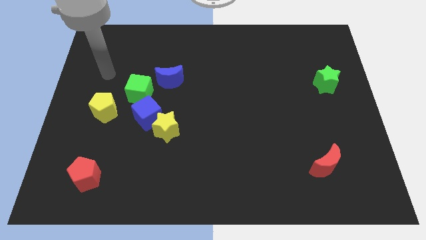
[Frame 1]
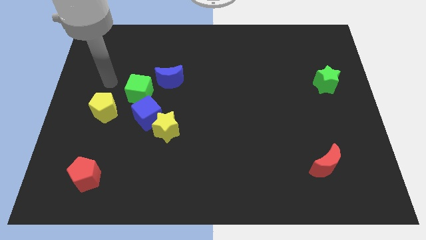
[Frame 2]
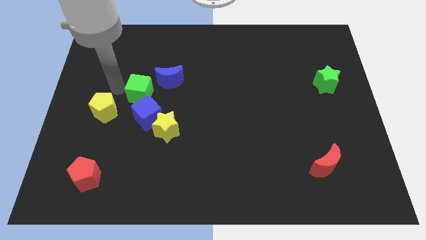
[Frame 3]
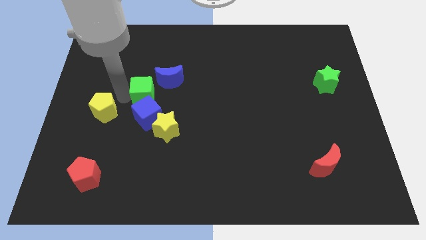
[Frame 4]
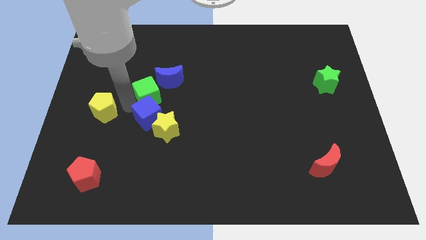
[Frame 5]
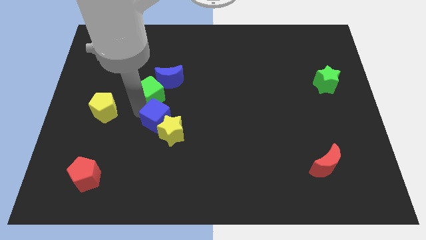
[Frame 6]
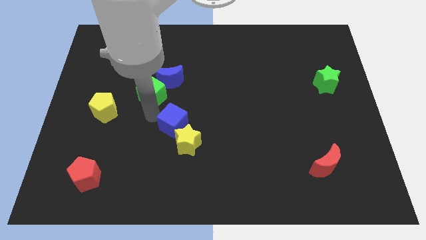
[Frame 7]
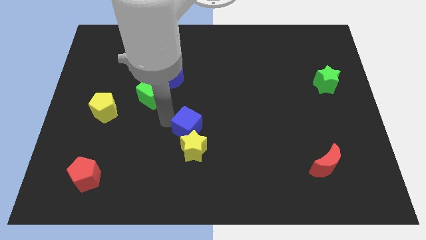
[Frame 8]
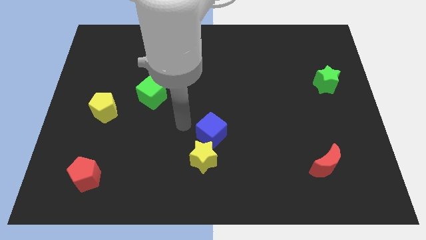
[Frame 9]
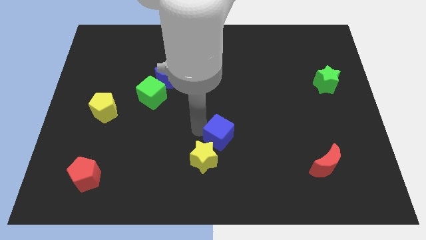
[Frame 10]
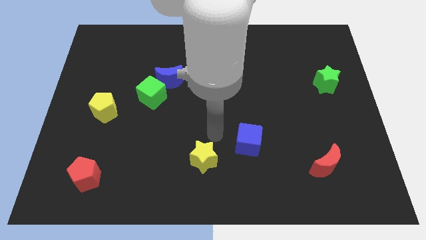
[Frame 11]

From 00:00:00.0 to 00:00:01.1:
pull the yellow star apart from the blue cube

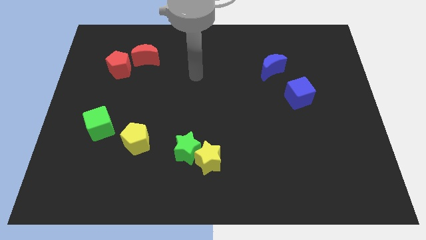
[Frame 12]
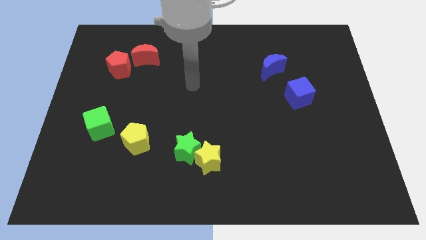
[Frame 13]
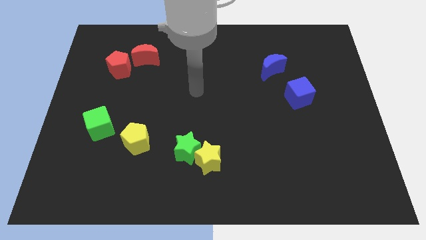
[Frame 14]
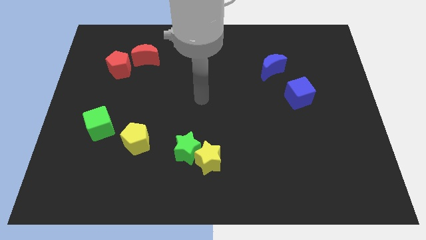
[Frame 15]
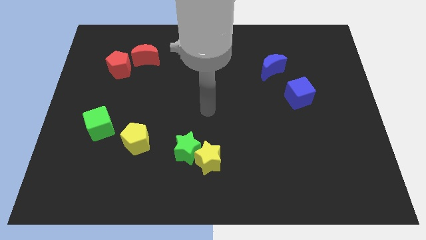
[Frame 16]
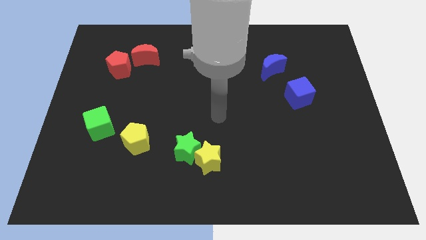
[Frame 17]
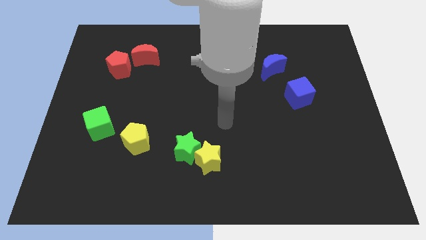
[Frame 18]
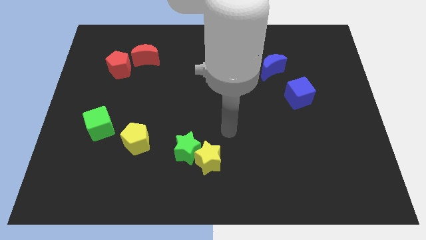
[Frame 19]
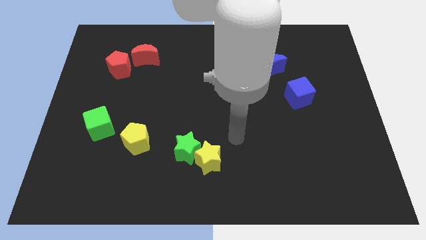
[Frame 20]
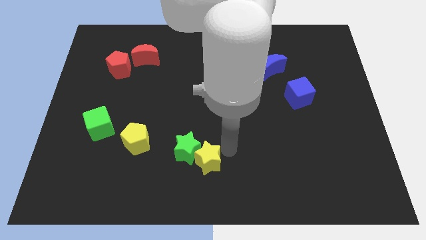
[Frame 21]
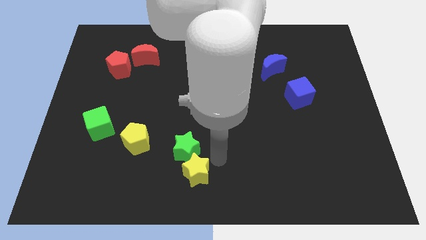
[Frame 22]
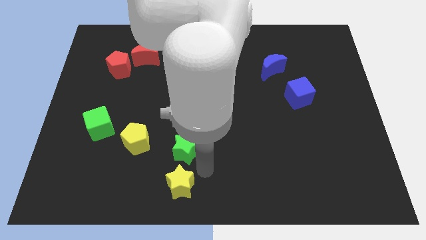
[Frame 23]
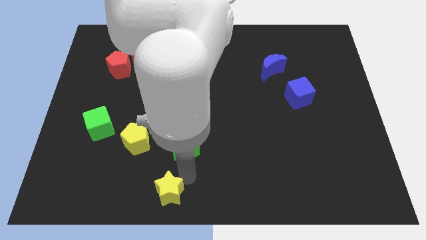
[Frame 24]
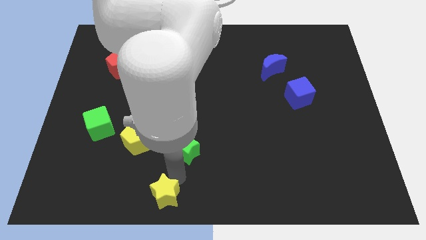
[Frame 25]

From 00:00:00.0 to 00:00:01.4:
separate the green star from the yellow star

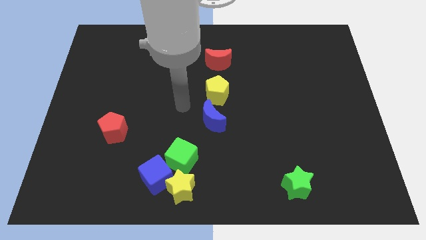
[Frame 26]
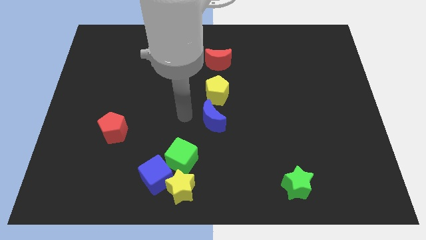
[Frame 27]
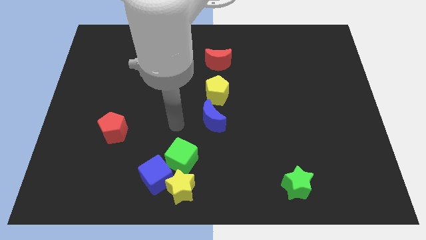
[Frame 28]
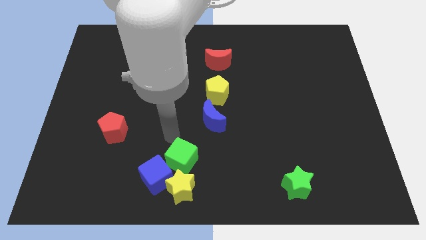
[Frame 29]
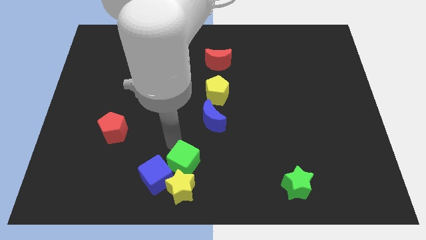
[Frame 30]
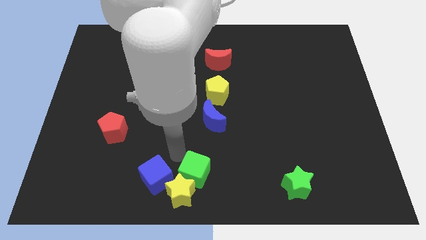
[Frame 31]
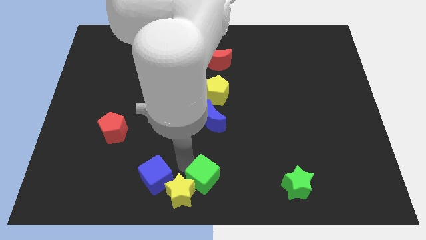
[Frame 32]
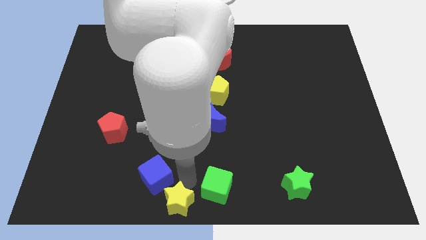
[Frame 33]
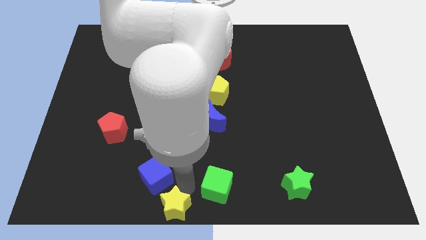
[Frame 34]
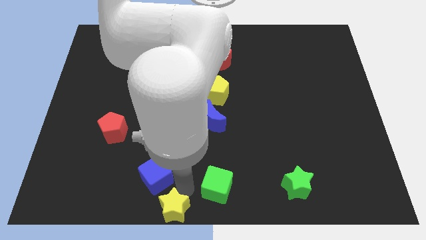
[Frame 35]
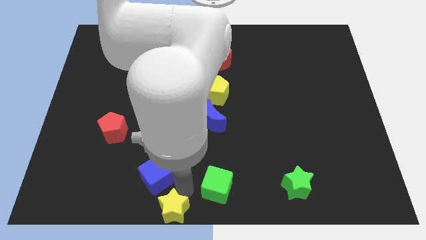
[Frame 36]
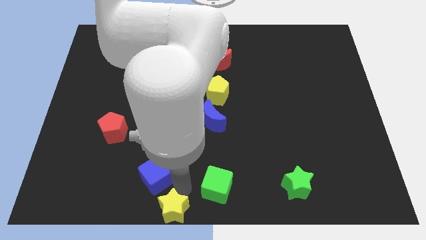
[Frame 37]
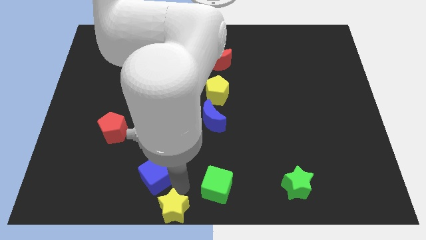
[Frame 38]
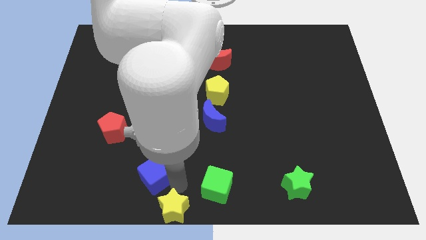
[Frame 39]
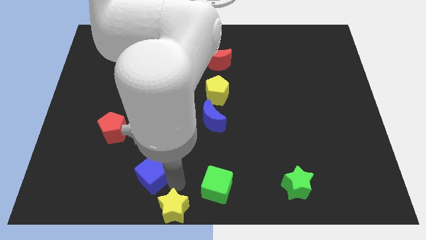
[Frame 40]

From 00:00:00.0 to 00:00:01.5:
move the blue cube away from the yellow star and green cube

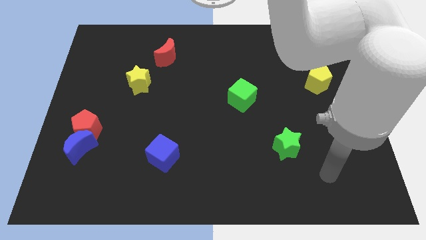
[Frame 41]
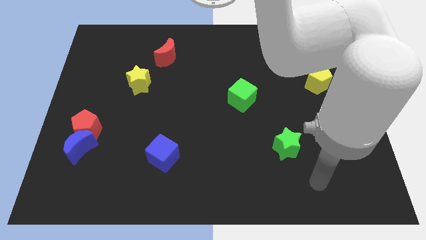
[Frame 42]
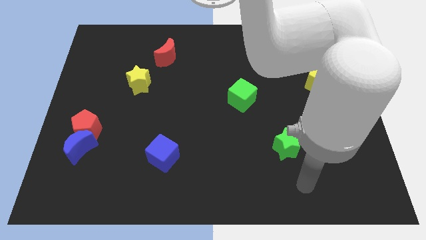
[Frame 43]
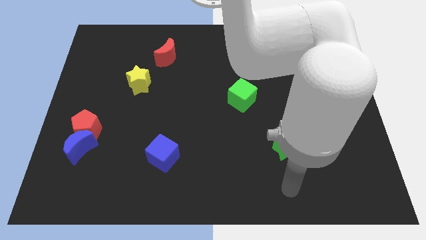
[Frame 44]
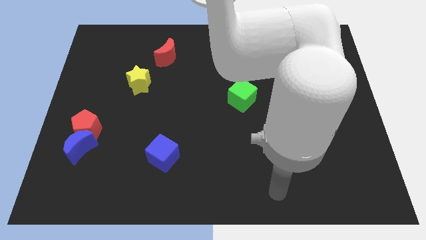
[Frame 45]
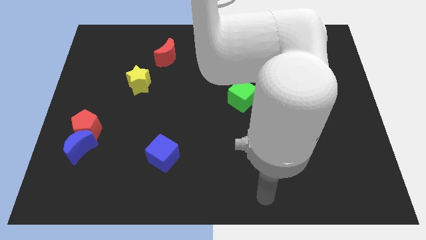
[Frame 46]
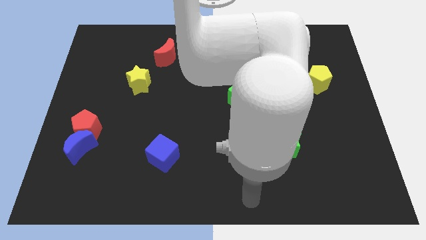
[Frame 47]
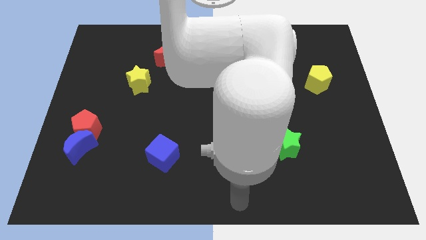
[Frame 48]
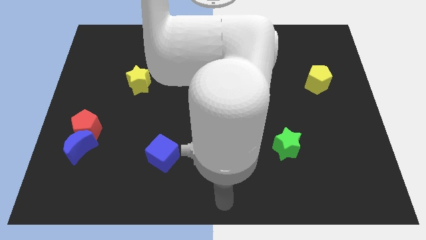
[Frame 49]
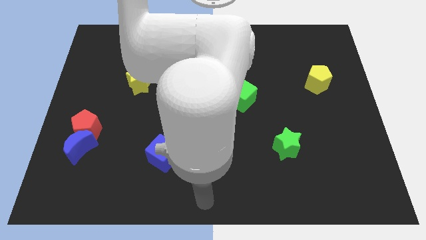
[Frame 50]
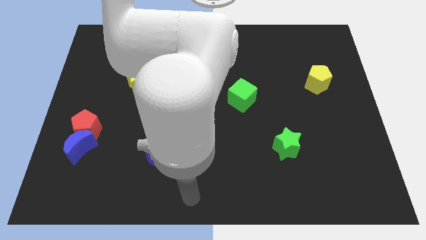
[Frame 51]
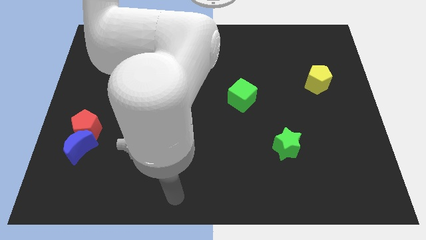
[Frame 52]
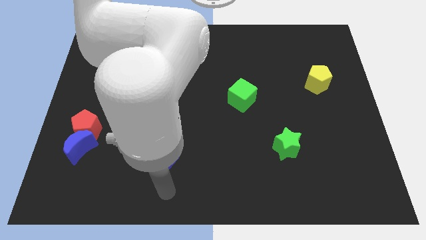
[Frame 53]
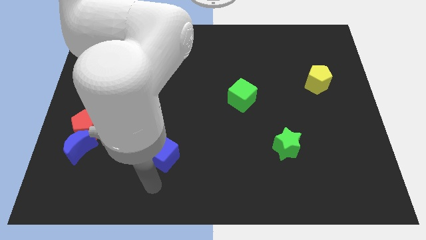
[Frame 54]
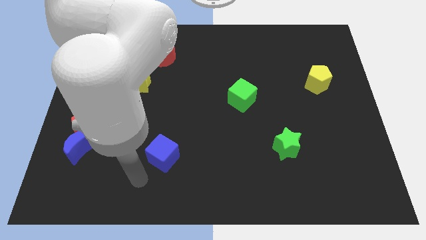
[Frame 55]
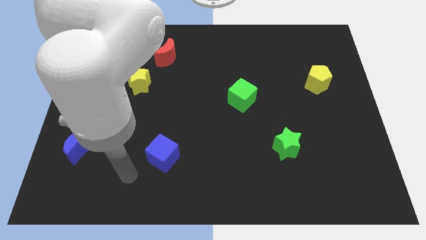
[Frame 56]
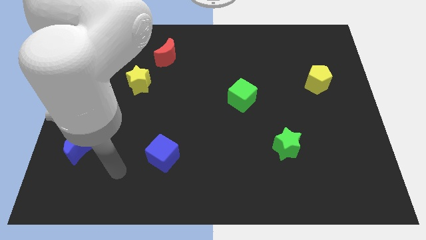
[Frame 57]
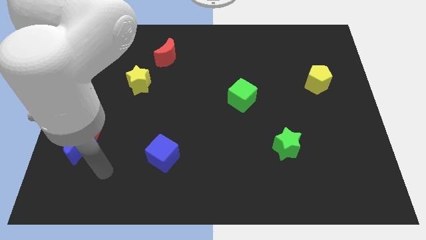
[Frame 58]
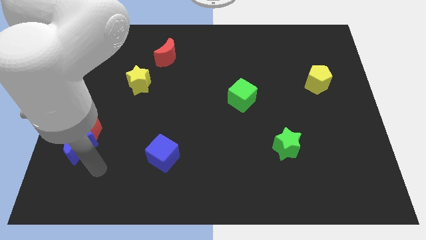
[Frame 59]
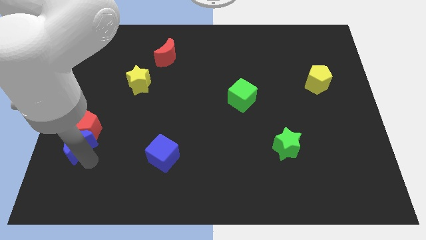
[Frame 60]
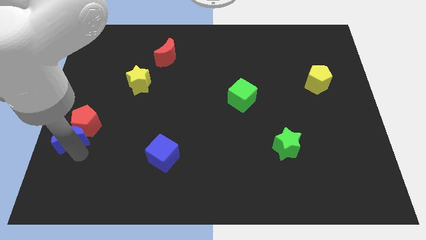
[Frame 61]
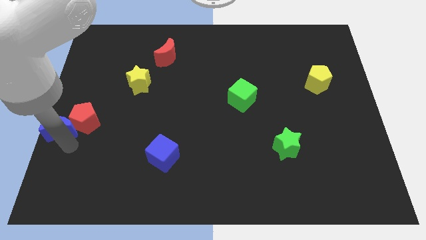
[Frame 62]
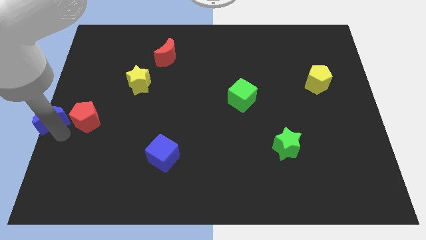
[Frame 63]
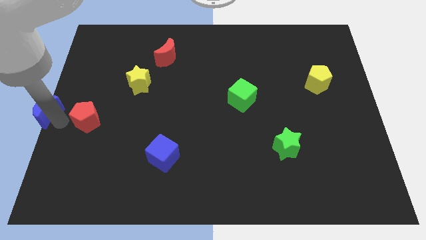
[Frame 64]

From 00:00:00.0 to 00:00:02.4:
move the red pentagon away from the blue moon

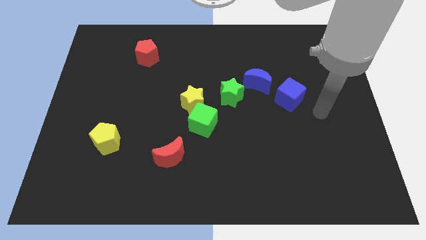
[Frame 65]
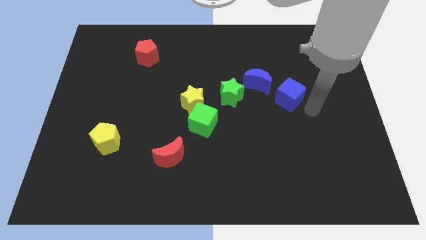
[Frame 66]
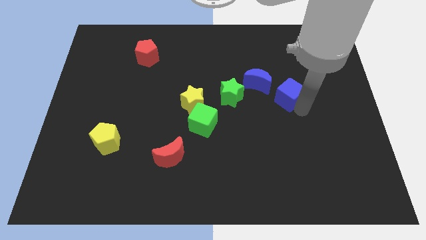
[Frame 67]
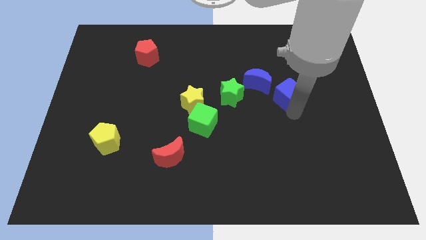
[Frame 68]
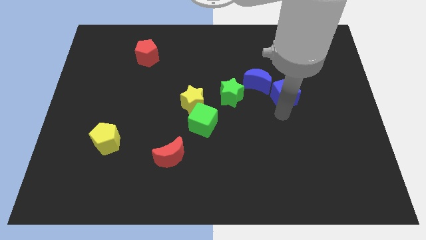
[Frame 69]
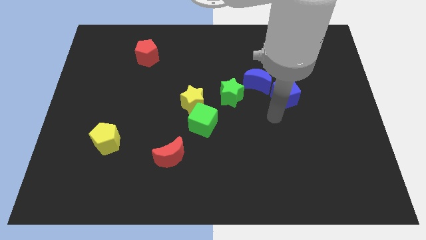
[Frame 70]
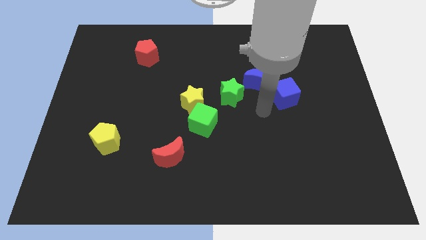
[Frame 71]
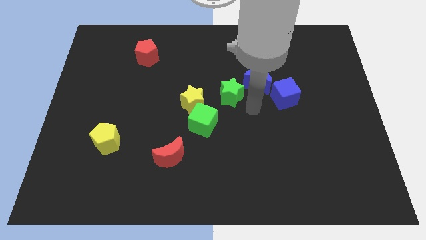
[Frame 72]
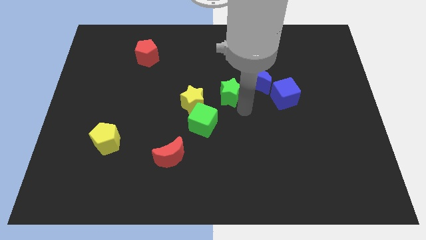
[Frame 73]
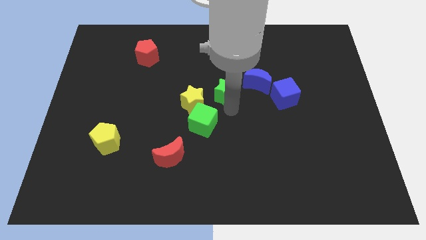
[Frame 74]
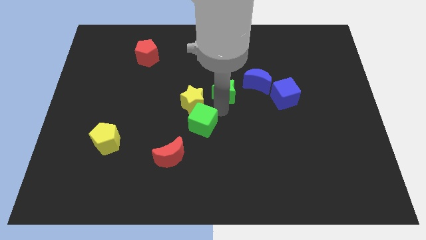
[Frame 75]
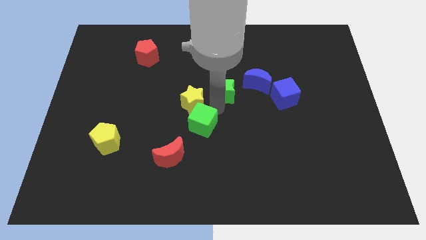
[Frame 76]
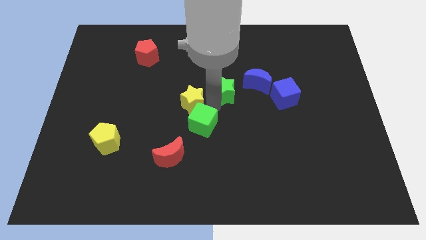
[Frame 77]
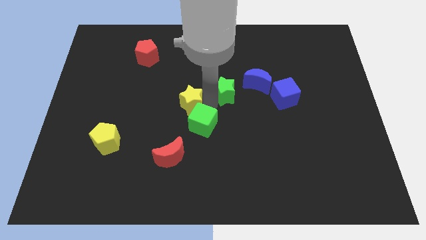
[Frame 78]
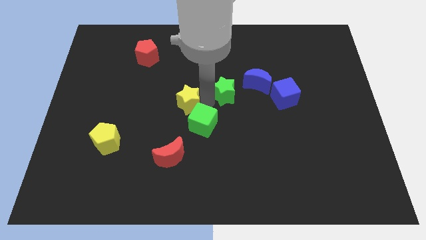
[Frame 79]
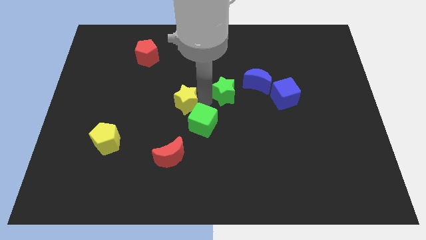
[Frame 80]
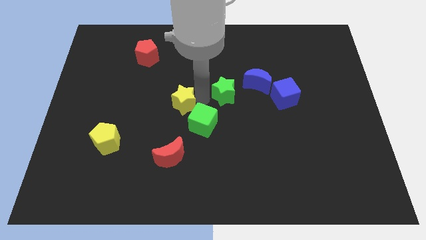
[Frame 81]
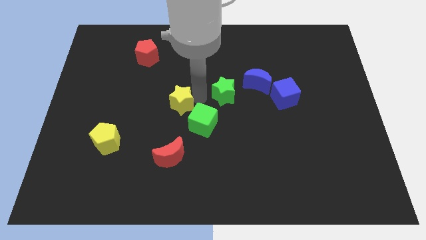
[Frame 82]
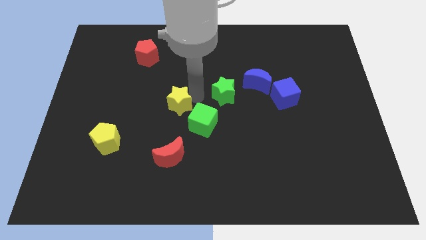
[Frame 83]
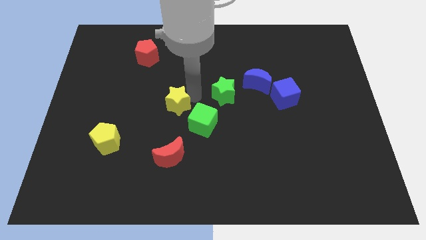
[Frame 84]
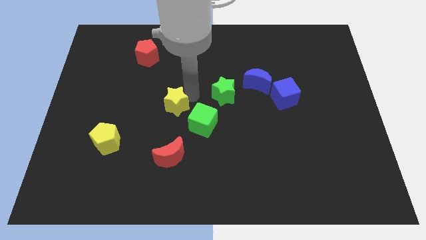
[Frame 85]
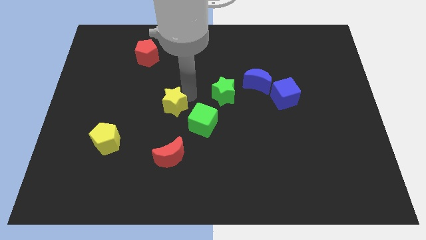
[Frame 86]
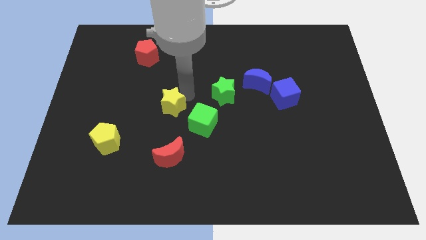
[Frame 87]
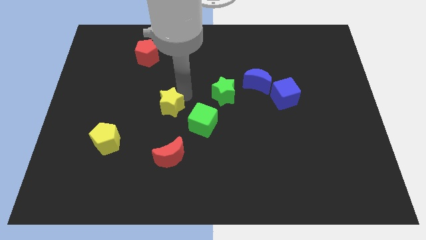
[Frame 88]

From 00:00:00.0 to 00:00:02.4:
separate the yellow star from the green cube and green star

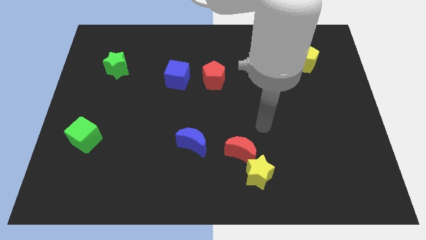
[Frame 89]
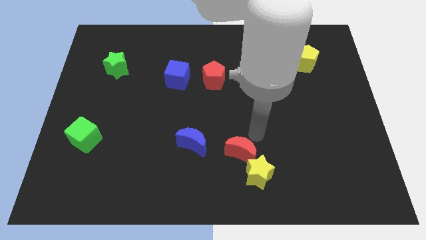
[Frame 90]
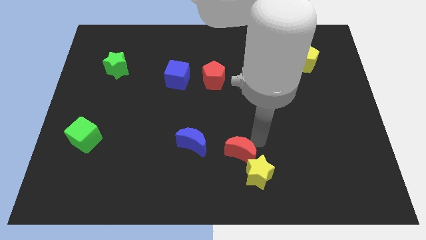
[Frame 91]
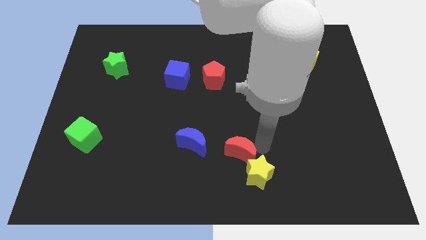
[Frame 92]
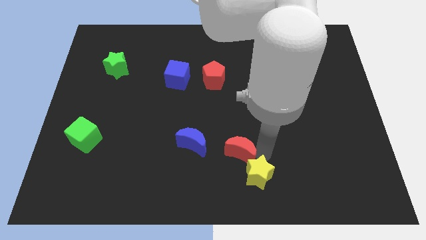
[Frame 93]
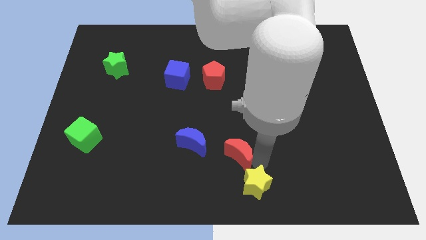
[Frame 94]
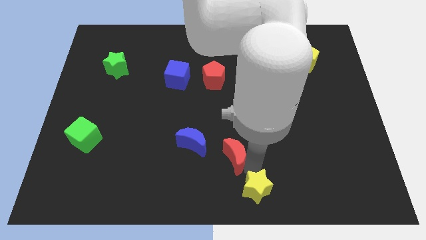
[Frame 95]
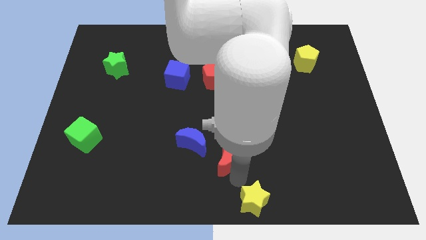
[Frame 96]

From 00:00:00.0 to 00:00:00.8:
move the red moon away from the yellow star
